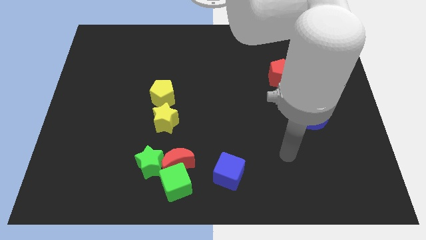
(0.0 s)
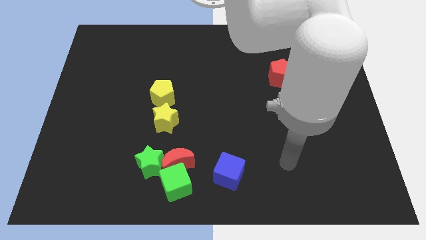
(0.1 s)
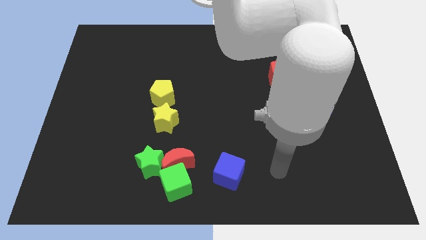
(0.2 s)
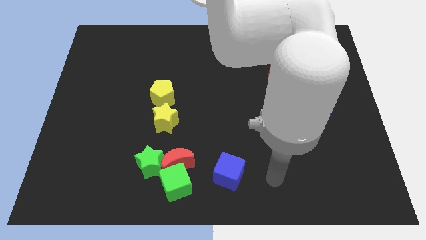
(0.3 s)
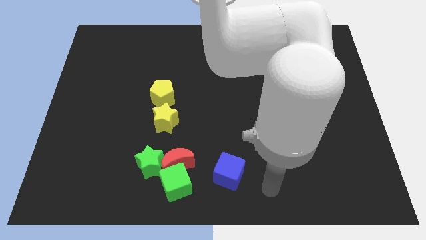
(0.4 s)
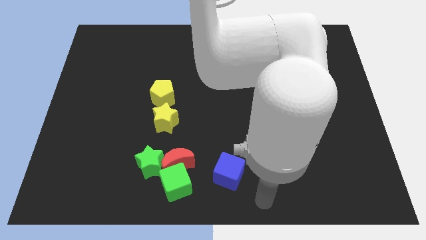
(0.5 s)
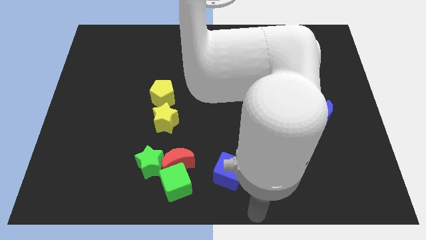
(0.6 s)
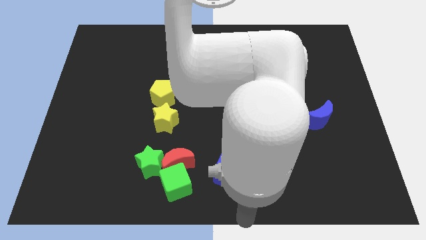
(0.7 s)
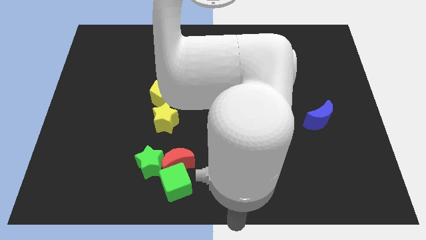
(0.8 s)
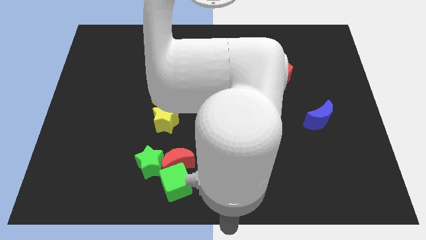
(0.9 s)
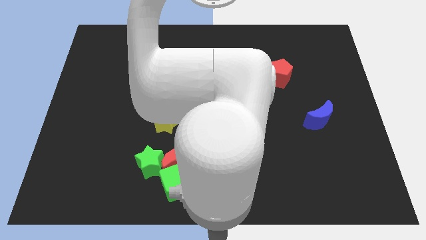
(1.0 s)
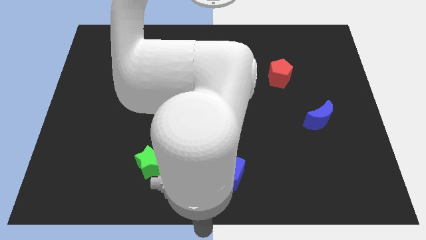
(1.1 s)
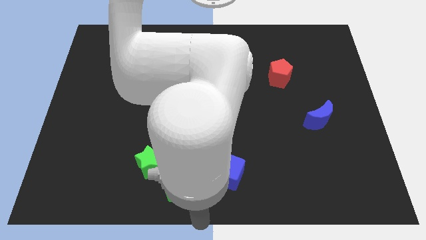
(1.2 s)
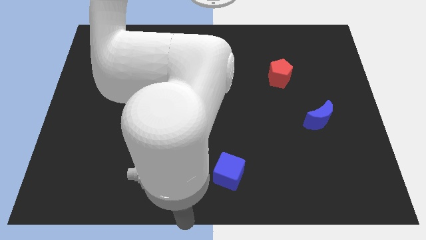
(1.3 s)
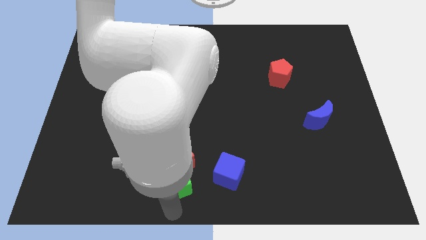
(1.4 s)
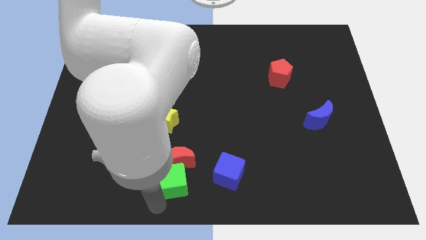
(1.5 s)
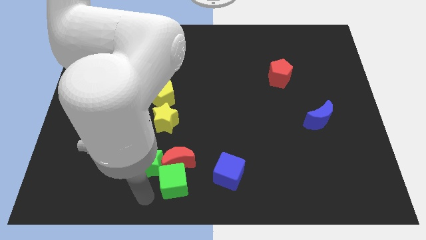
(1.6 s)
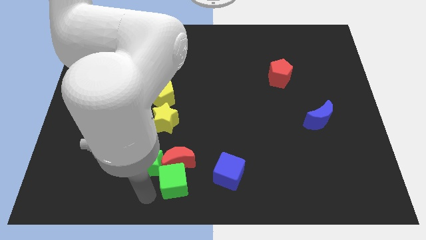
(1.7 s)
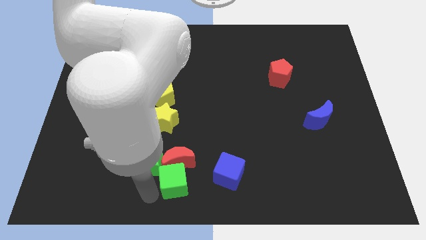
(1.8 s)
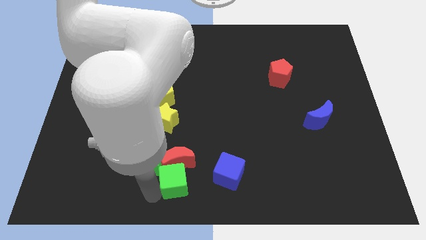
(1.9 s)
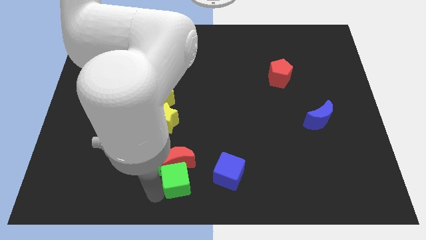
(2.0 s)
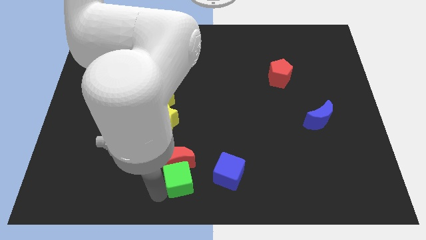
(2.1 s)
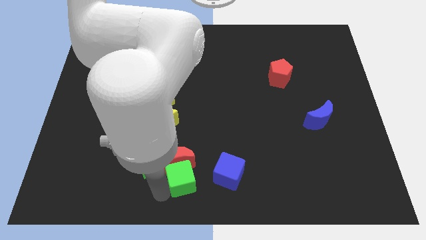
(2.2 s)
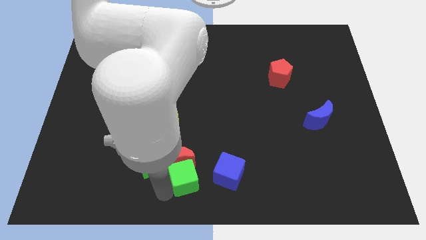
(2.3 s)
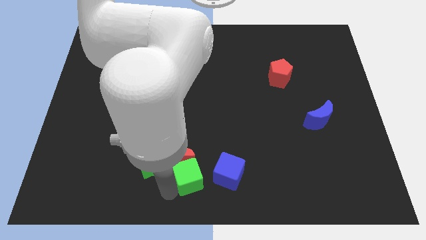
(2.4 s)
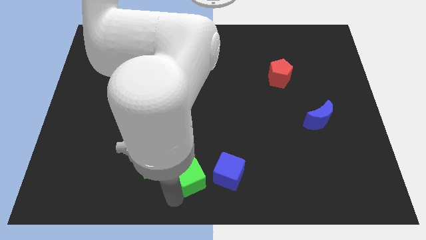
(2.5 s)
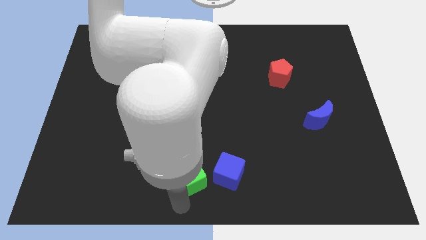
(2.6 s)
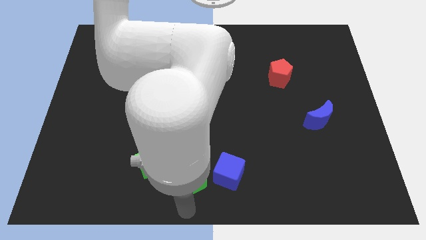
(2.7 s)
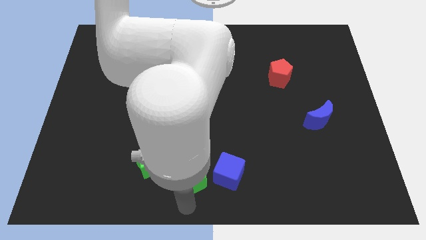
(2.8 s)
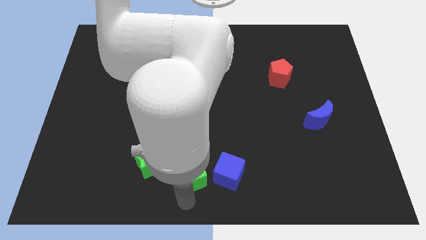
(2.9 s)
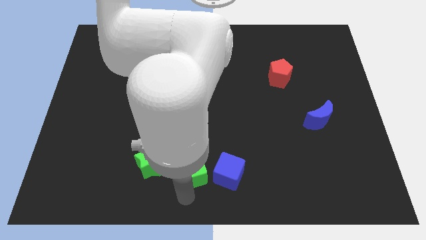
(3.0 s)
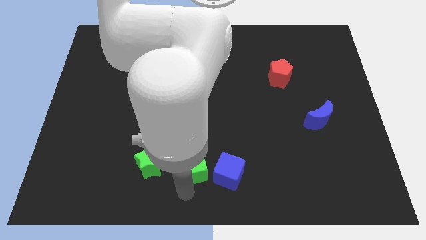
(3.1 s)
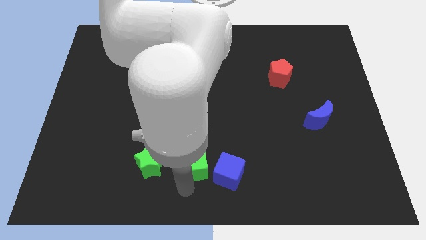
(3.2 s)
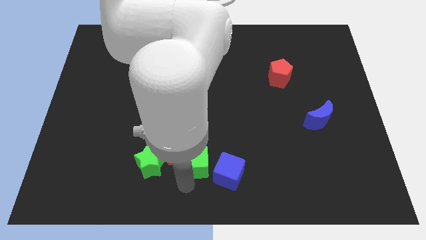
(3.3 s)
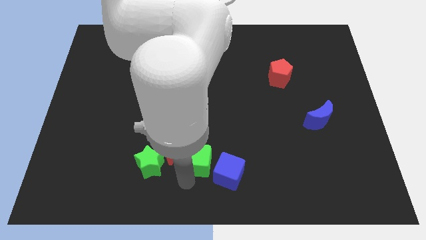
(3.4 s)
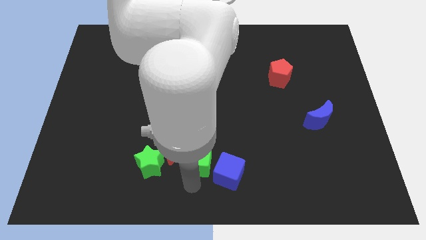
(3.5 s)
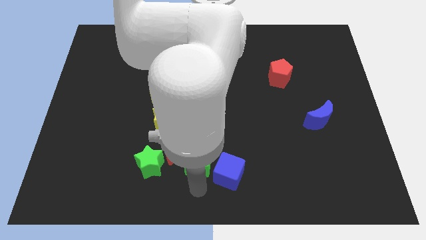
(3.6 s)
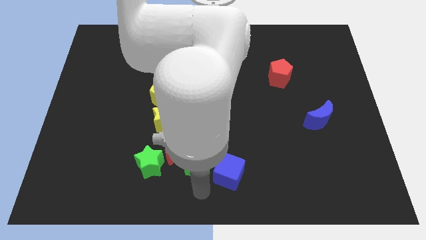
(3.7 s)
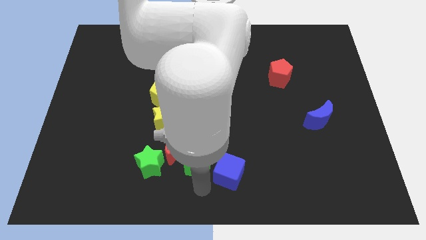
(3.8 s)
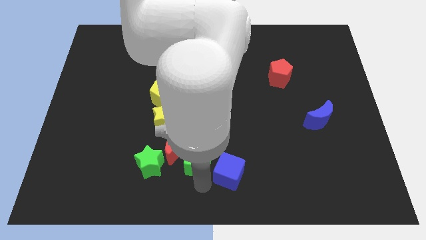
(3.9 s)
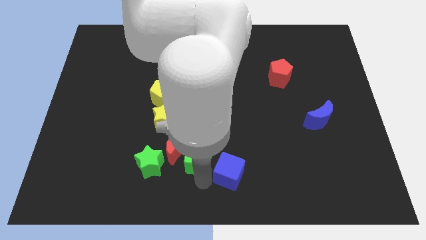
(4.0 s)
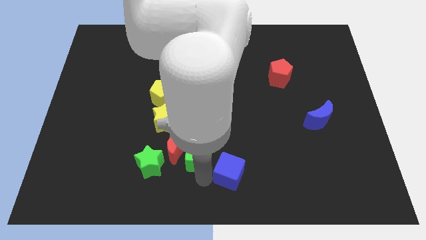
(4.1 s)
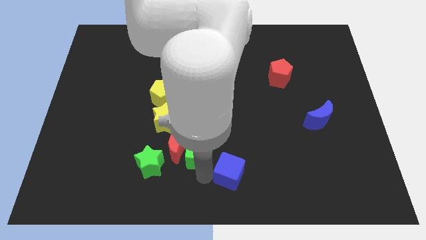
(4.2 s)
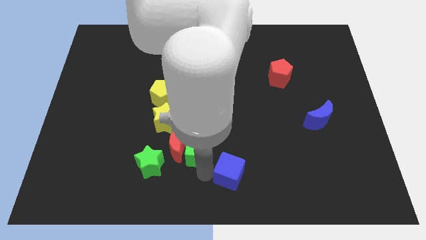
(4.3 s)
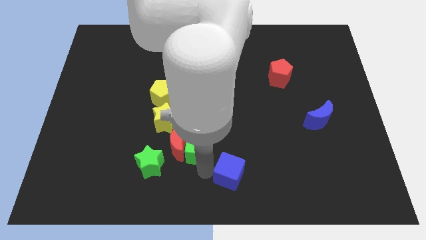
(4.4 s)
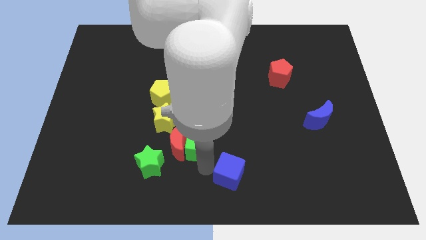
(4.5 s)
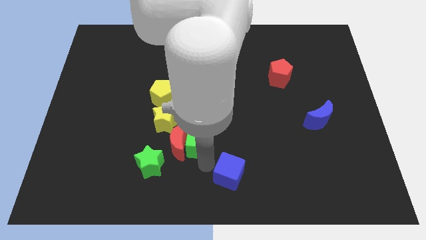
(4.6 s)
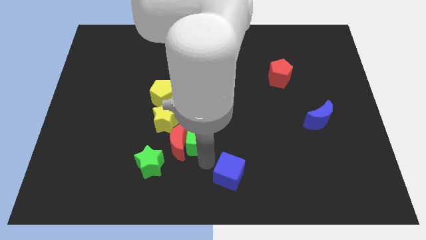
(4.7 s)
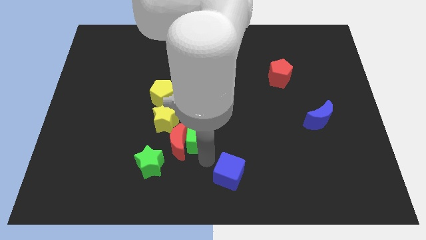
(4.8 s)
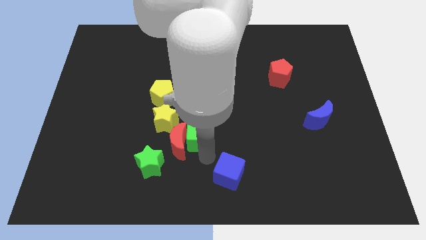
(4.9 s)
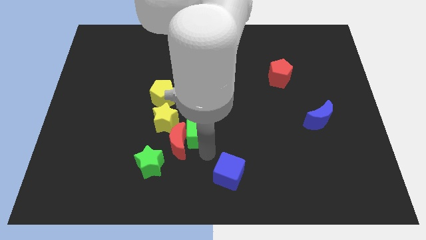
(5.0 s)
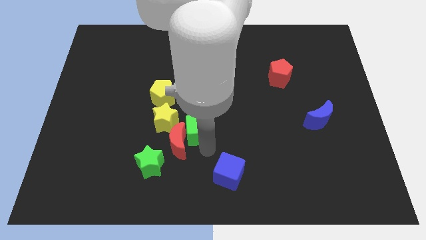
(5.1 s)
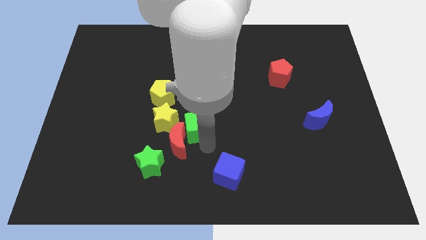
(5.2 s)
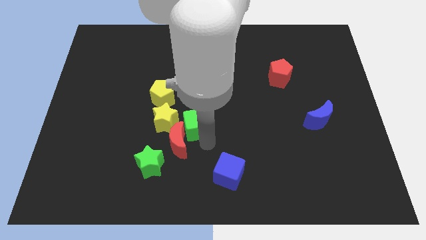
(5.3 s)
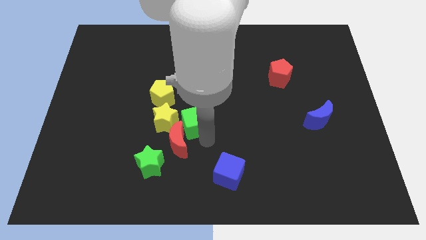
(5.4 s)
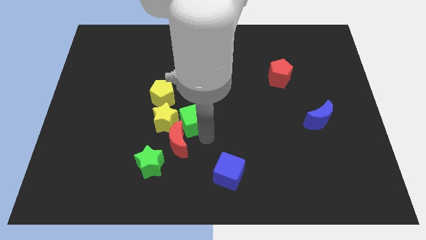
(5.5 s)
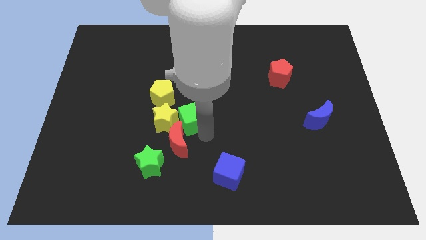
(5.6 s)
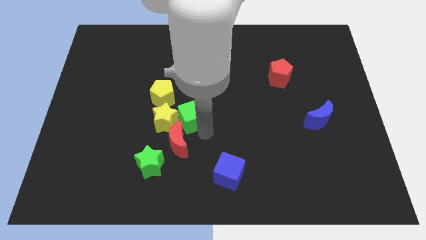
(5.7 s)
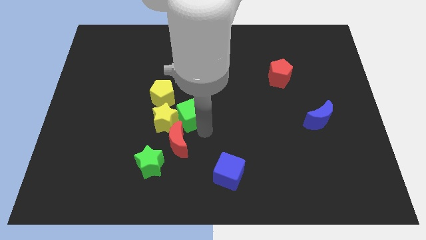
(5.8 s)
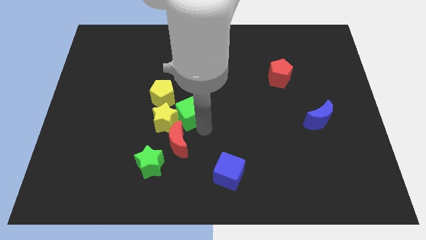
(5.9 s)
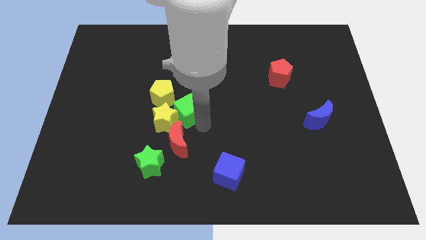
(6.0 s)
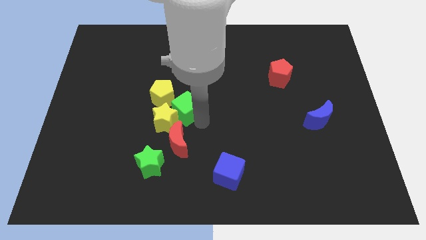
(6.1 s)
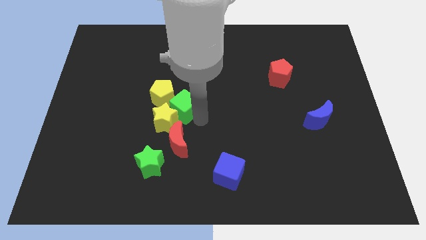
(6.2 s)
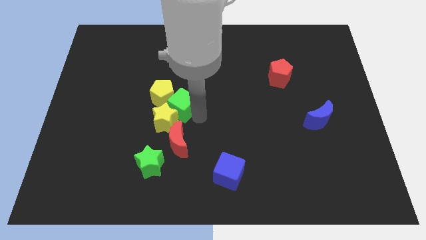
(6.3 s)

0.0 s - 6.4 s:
push the green cube close to the yellow pentagon

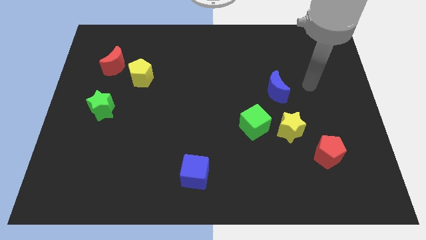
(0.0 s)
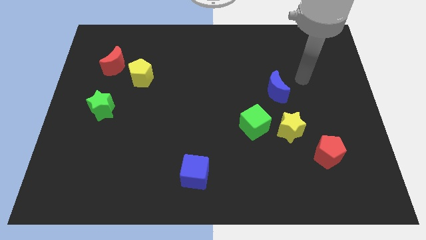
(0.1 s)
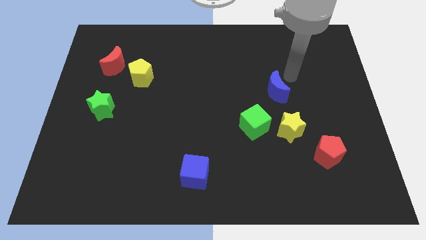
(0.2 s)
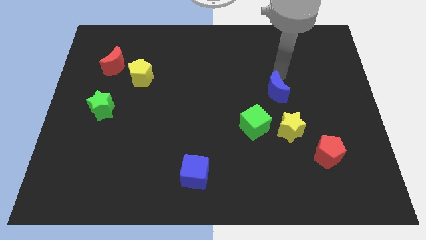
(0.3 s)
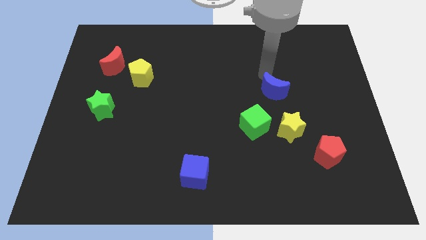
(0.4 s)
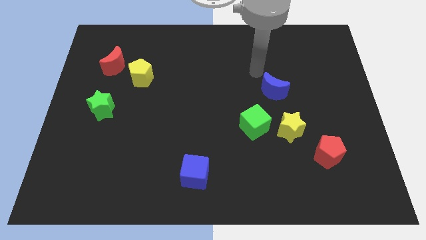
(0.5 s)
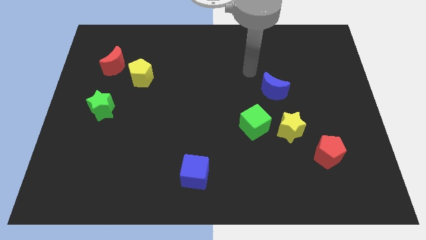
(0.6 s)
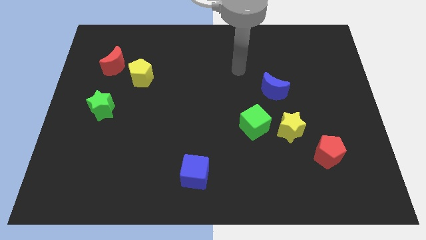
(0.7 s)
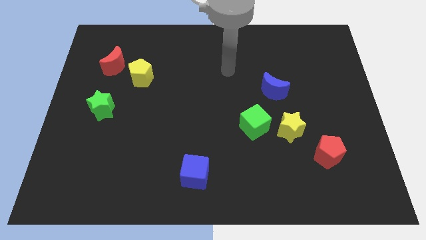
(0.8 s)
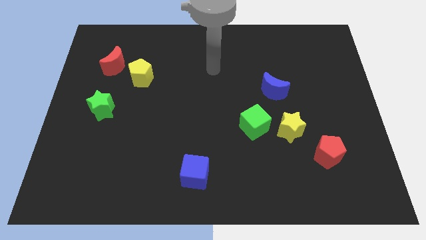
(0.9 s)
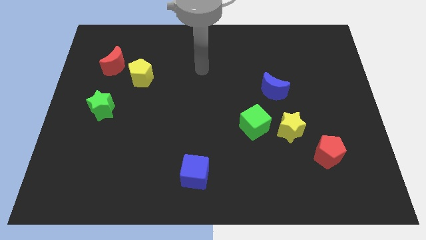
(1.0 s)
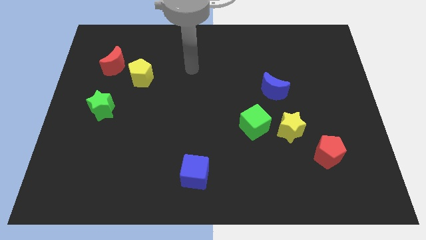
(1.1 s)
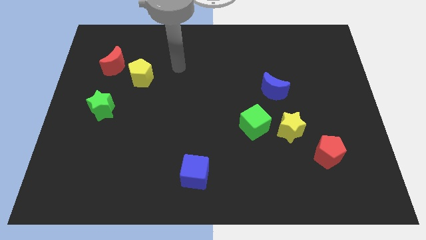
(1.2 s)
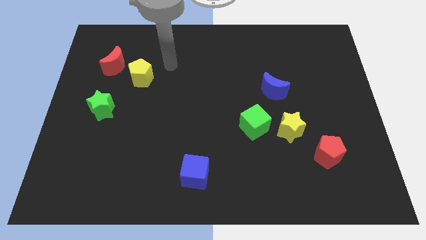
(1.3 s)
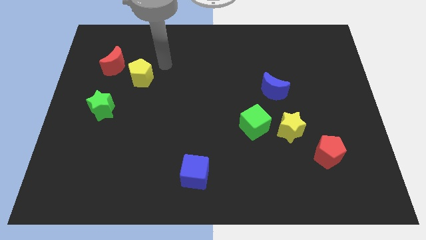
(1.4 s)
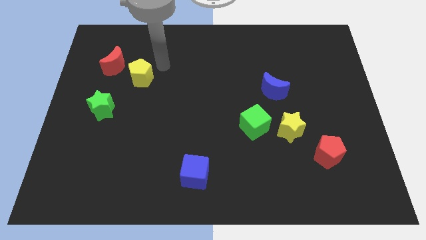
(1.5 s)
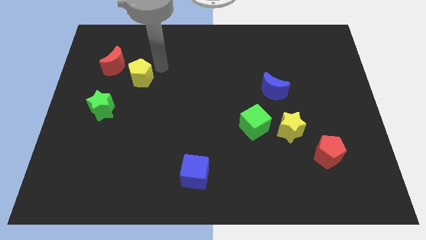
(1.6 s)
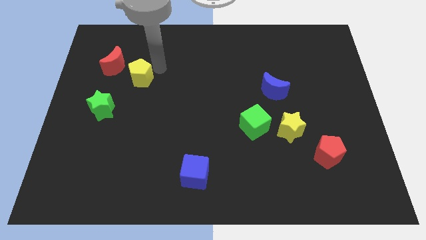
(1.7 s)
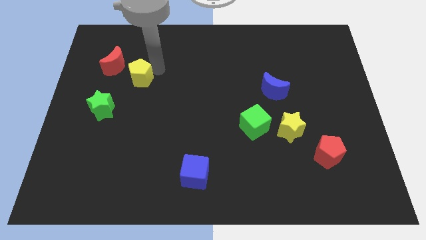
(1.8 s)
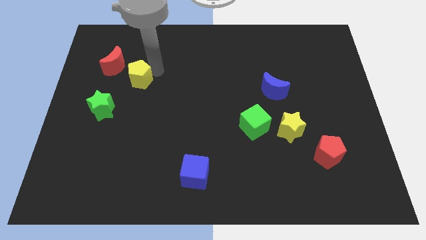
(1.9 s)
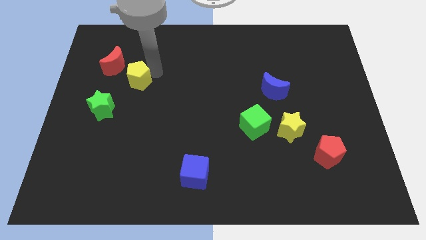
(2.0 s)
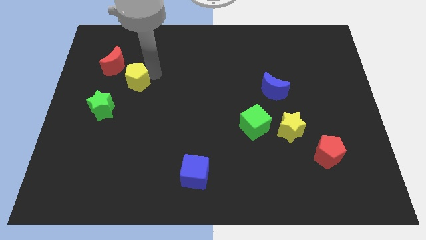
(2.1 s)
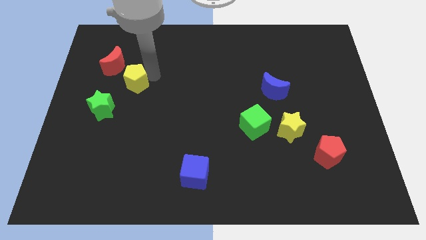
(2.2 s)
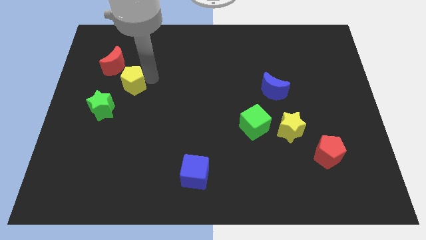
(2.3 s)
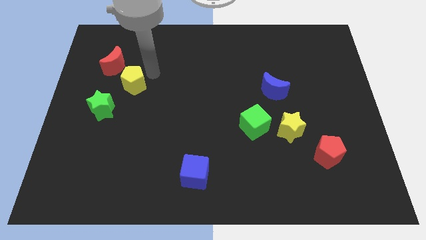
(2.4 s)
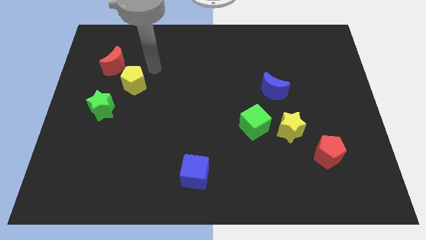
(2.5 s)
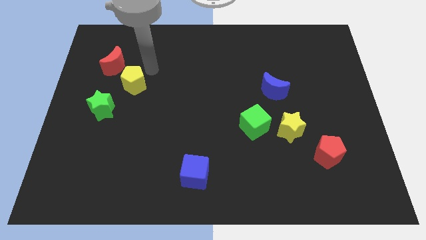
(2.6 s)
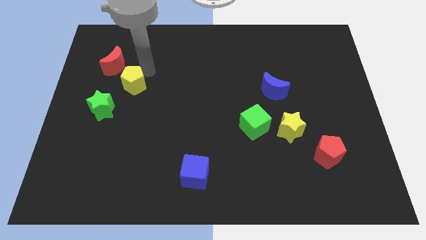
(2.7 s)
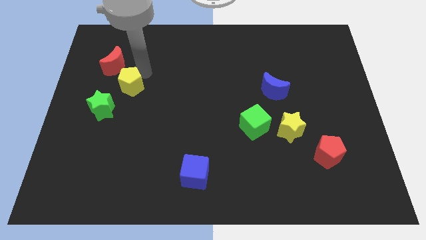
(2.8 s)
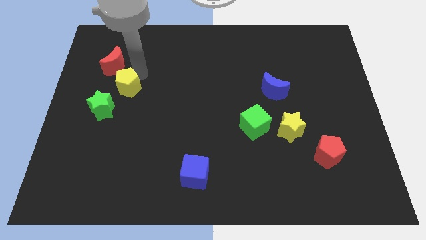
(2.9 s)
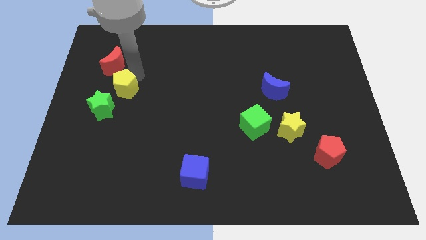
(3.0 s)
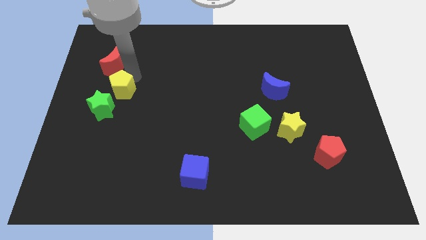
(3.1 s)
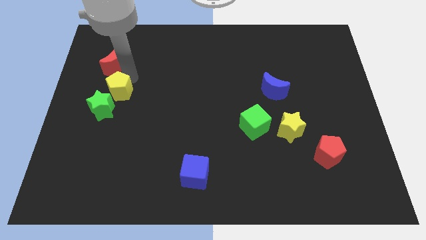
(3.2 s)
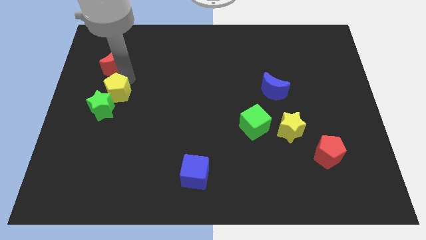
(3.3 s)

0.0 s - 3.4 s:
push the yellow pentagon close to the green star
